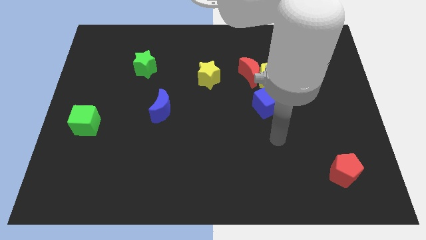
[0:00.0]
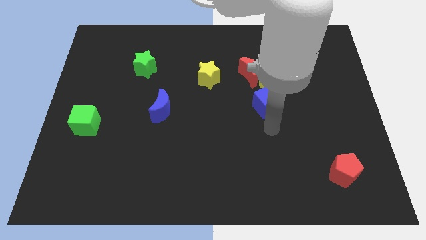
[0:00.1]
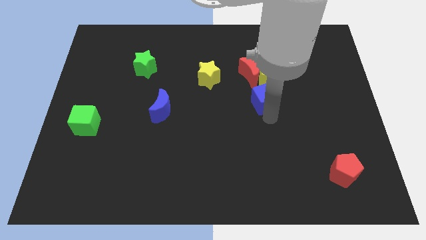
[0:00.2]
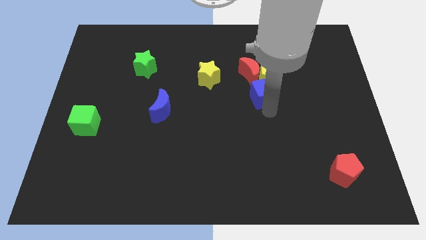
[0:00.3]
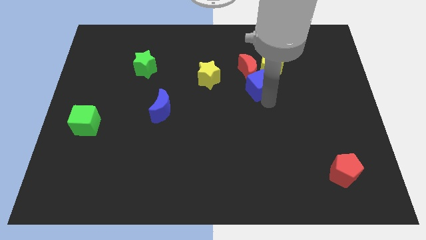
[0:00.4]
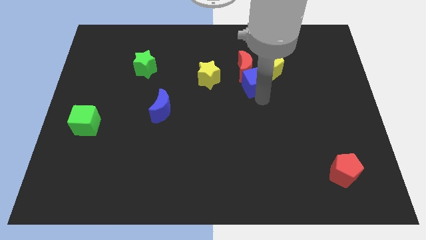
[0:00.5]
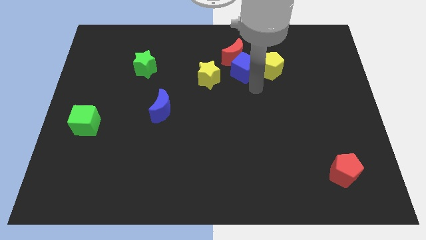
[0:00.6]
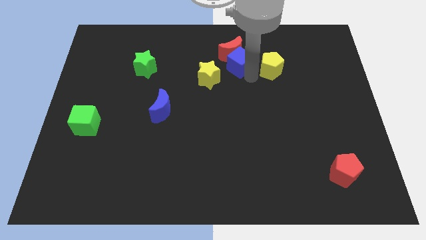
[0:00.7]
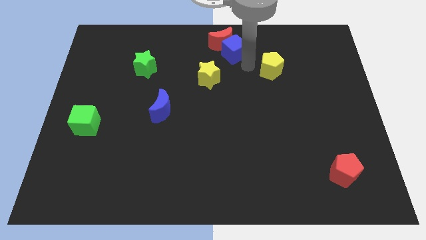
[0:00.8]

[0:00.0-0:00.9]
pull the yellow pentagon apart from the red moon and blue cube

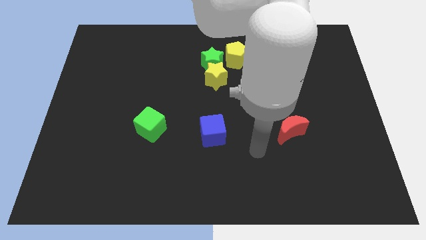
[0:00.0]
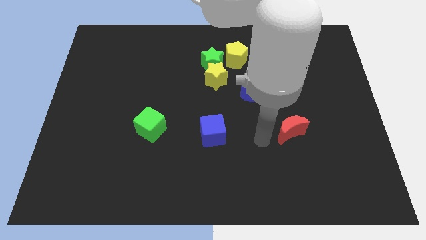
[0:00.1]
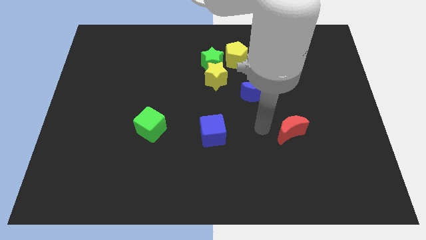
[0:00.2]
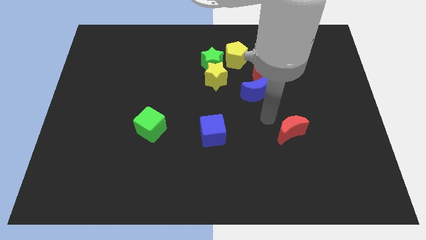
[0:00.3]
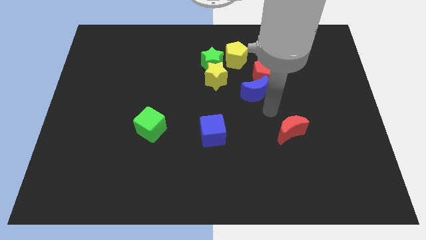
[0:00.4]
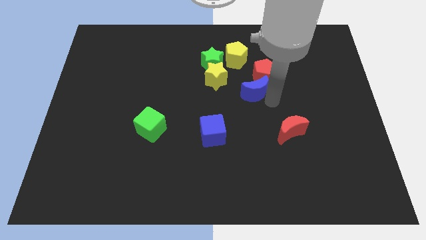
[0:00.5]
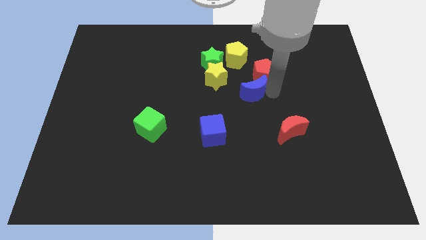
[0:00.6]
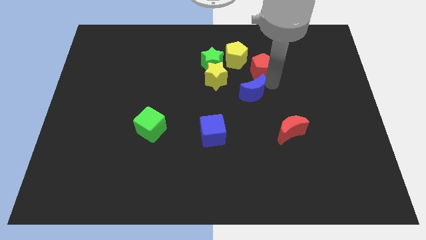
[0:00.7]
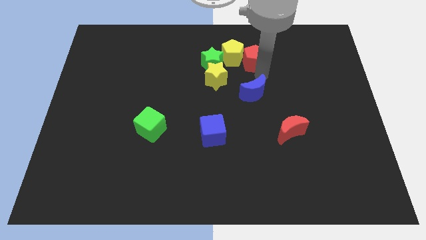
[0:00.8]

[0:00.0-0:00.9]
pull the blue moon apart from the red pentagon

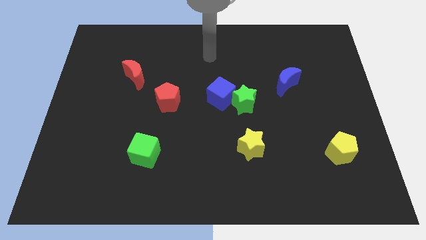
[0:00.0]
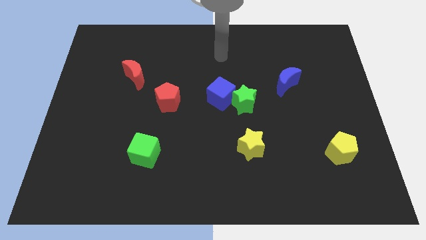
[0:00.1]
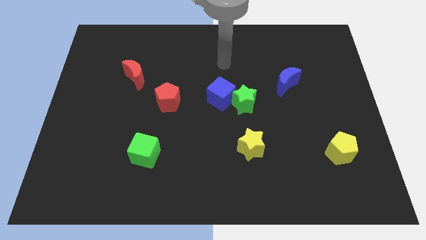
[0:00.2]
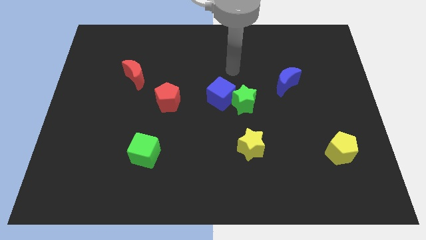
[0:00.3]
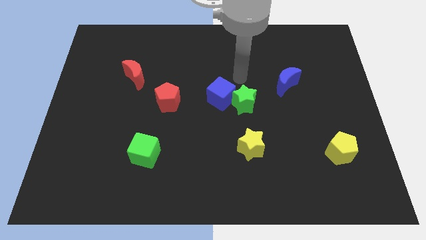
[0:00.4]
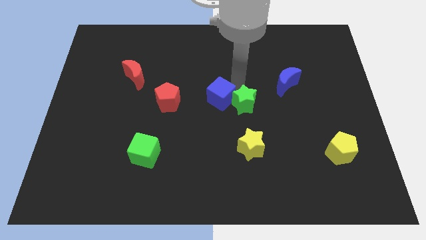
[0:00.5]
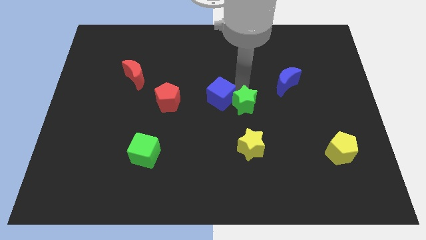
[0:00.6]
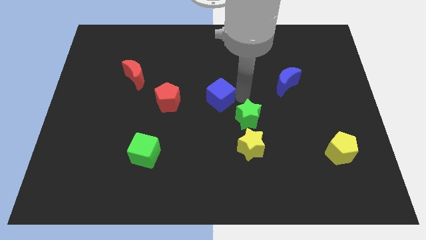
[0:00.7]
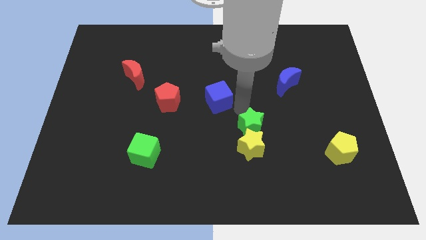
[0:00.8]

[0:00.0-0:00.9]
separate the blue cube from the green star

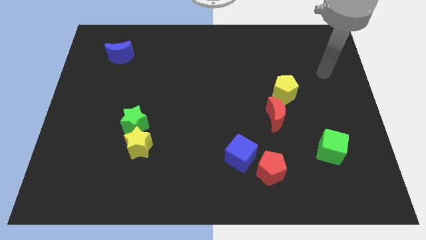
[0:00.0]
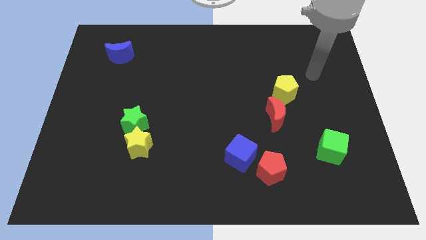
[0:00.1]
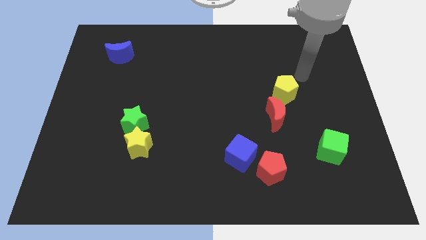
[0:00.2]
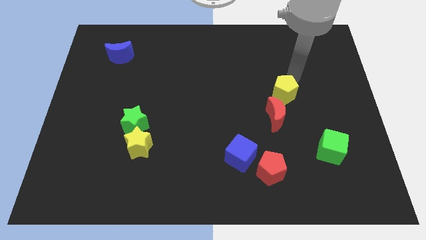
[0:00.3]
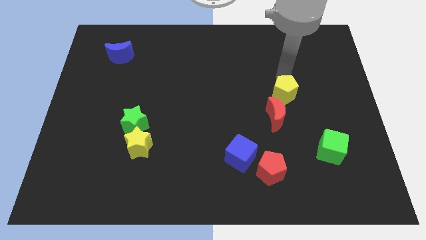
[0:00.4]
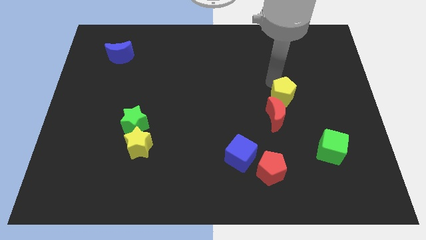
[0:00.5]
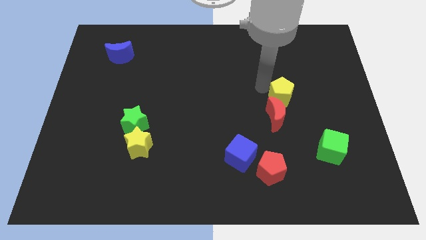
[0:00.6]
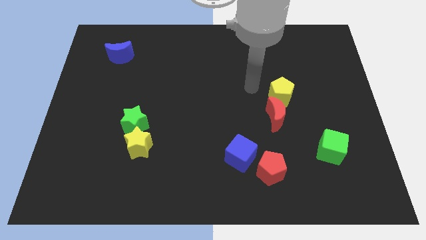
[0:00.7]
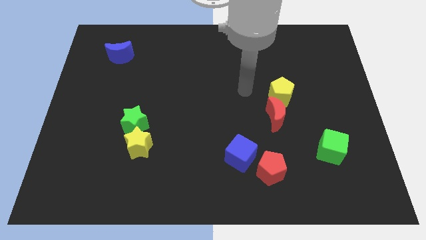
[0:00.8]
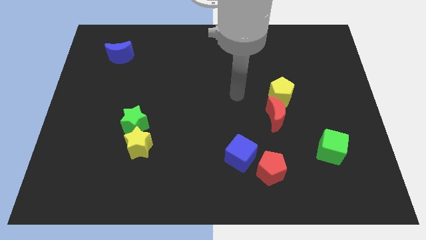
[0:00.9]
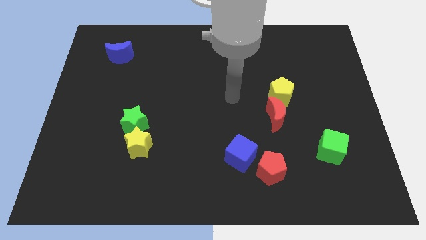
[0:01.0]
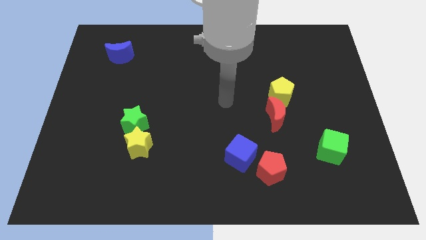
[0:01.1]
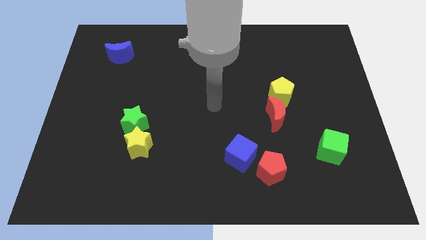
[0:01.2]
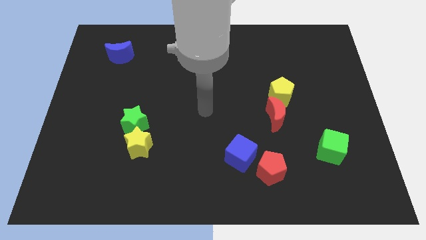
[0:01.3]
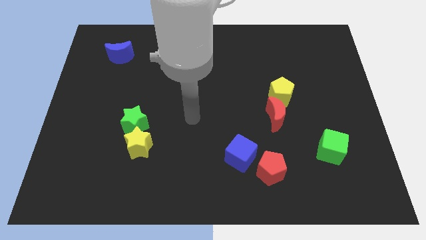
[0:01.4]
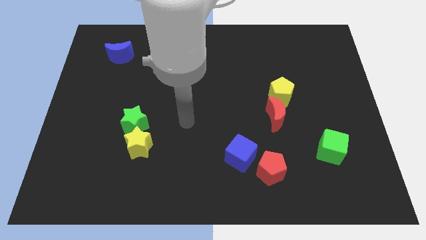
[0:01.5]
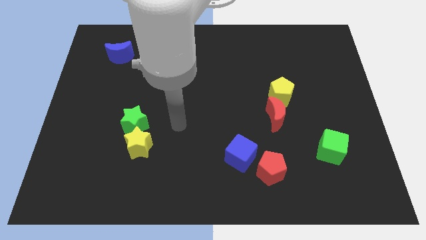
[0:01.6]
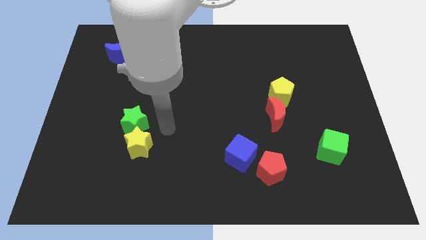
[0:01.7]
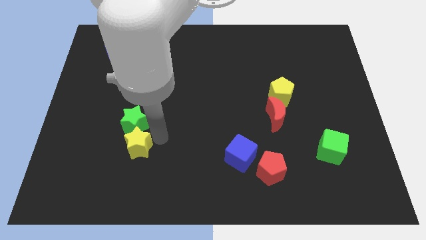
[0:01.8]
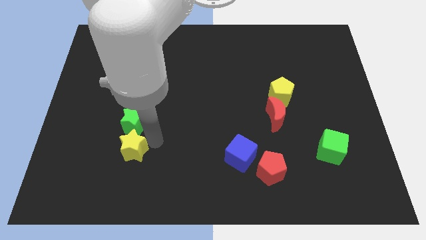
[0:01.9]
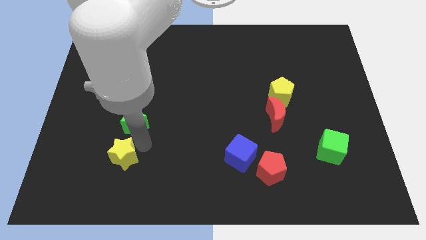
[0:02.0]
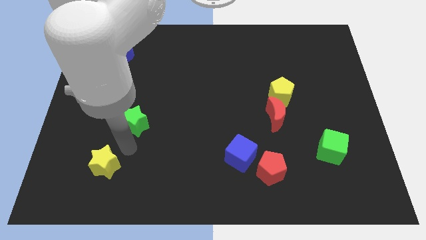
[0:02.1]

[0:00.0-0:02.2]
move the green star away from the yellow star

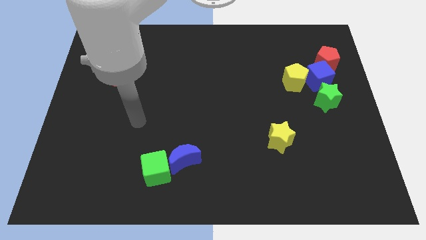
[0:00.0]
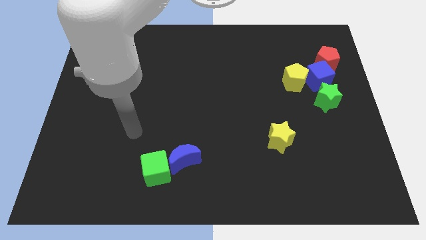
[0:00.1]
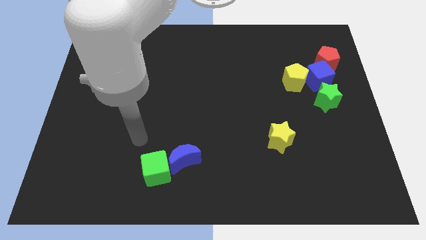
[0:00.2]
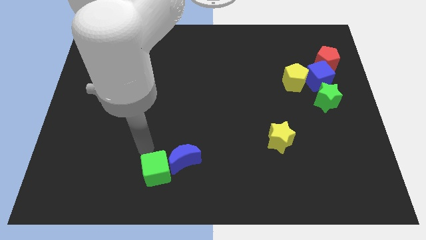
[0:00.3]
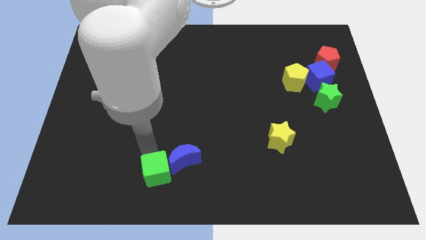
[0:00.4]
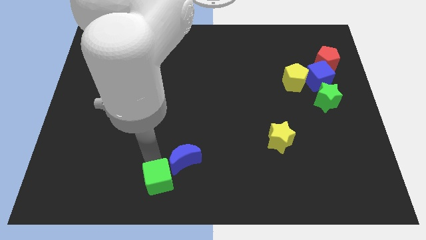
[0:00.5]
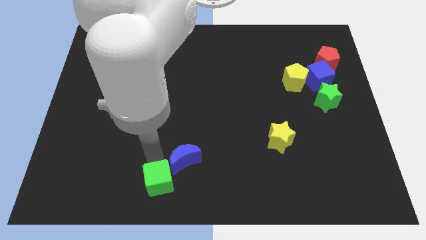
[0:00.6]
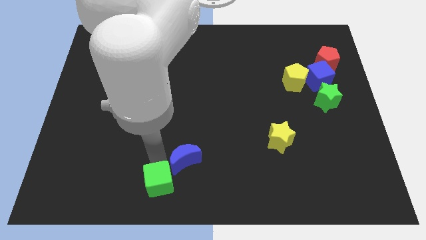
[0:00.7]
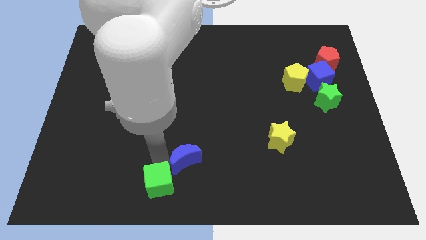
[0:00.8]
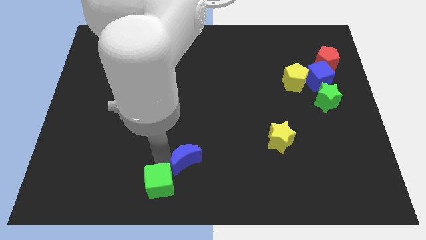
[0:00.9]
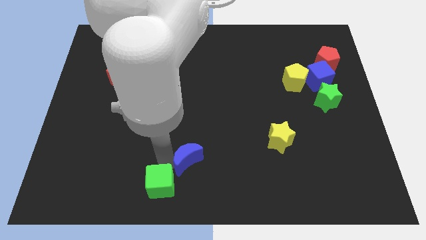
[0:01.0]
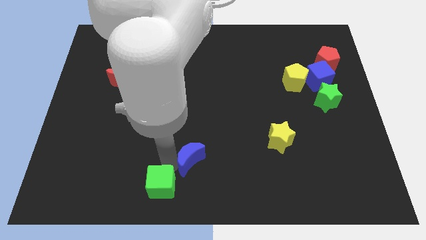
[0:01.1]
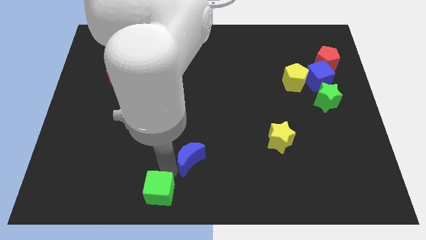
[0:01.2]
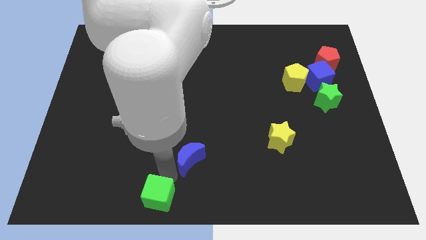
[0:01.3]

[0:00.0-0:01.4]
separate the blue moon from the green cube

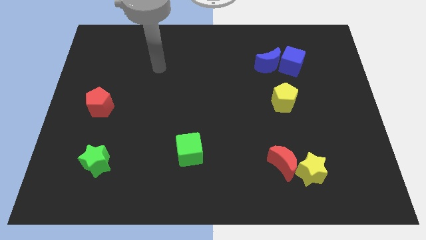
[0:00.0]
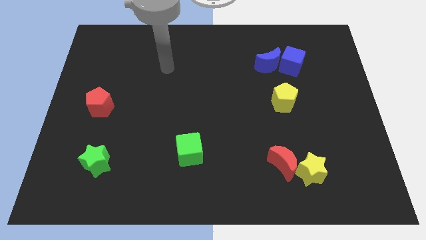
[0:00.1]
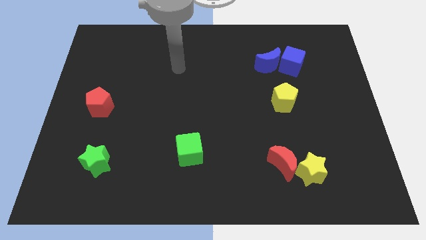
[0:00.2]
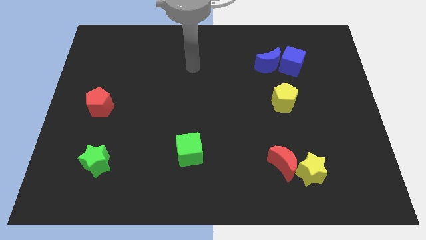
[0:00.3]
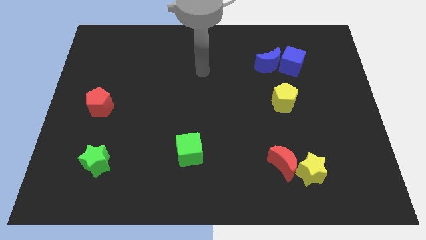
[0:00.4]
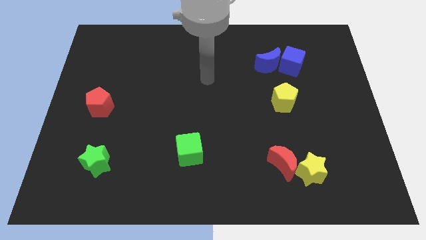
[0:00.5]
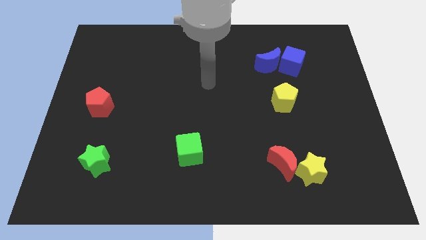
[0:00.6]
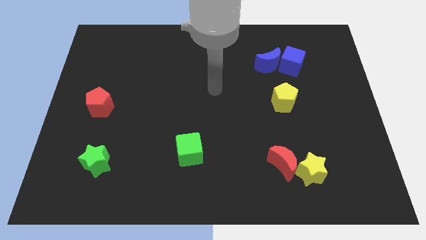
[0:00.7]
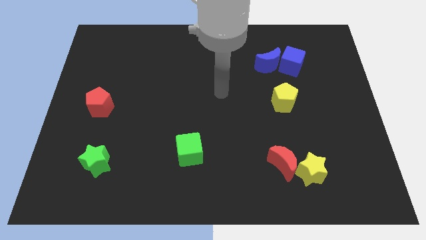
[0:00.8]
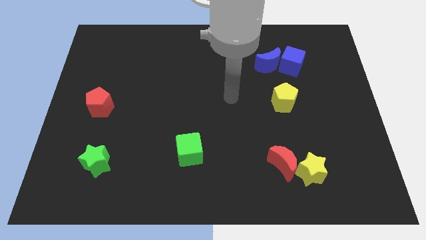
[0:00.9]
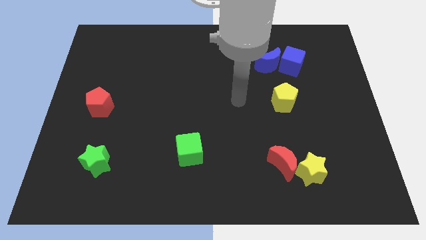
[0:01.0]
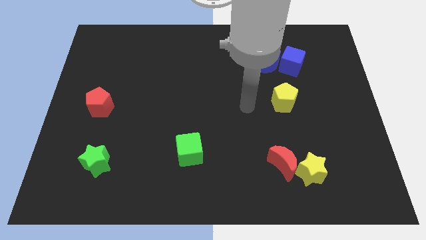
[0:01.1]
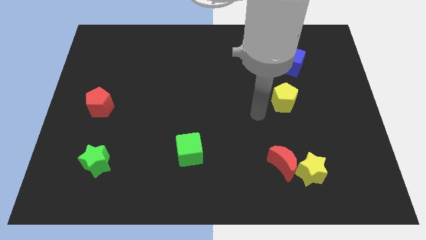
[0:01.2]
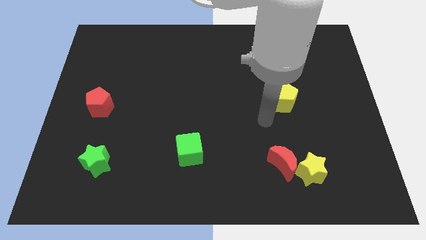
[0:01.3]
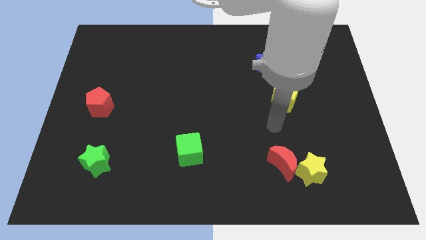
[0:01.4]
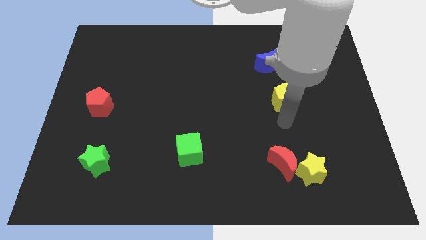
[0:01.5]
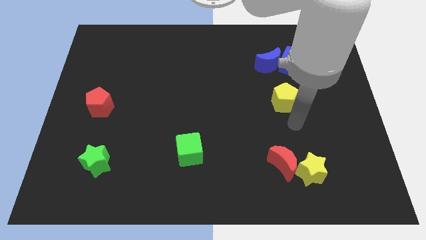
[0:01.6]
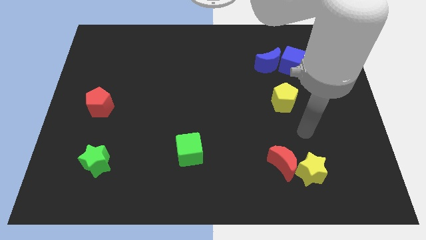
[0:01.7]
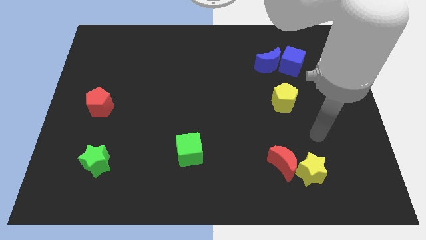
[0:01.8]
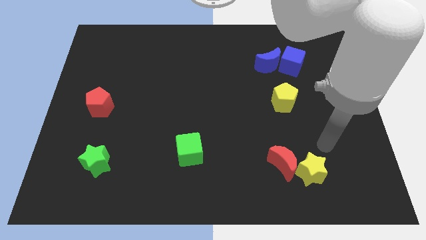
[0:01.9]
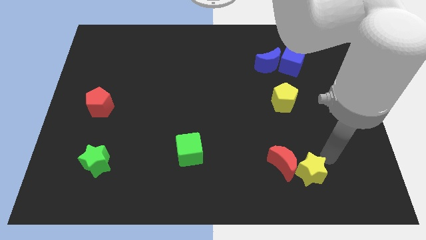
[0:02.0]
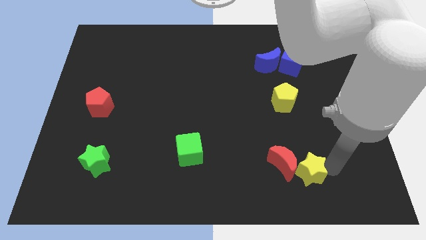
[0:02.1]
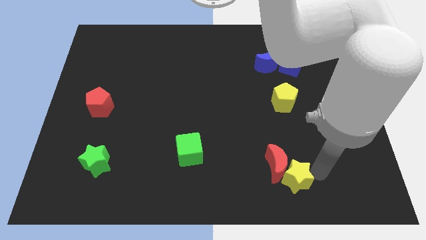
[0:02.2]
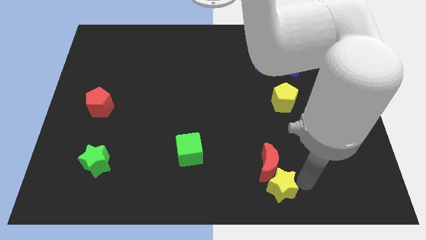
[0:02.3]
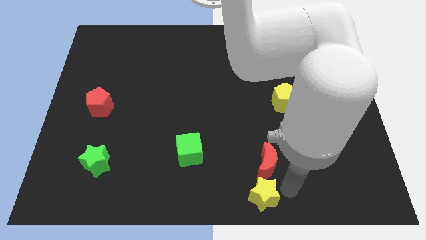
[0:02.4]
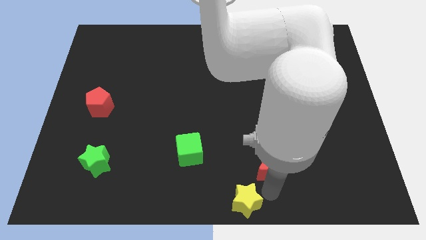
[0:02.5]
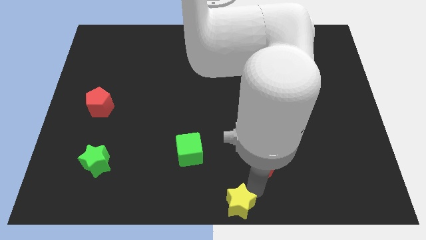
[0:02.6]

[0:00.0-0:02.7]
separate the red moon from the yellow star

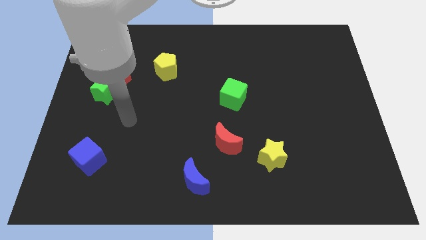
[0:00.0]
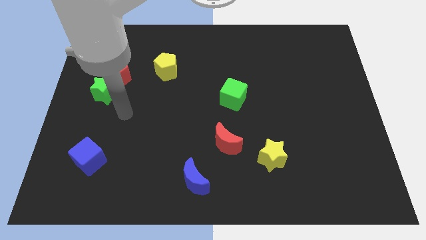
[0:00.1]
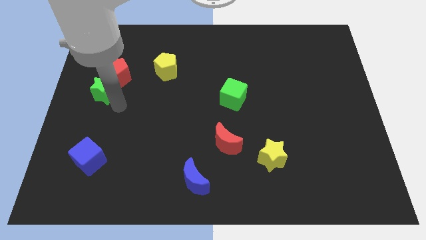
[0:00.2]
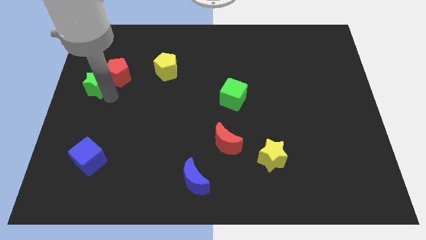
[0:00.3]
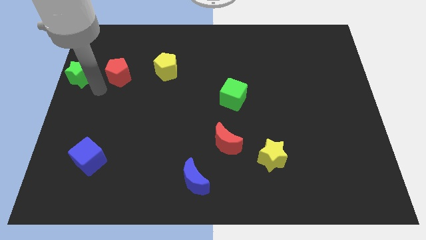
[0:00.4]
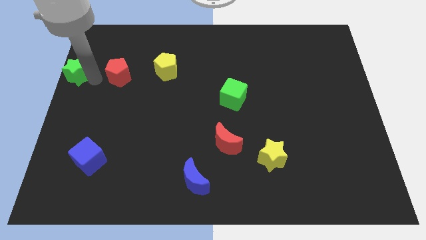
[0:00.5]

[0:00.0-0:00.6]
pull the red pentagon apart from the green star
